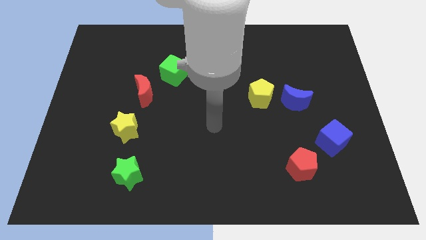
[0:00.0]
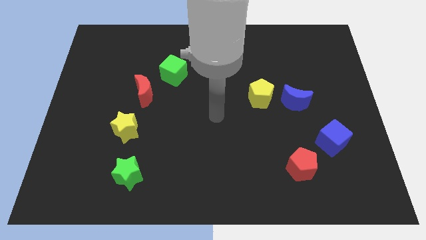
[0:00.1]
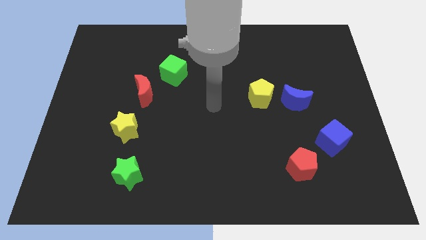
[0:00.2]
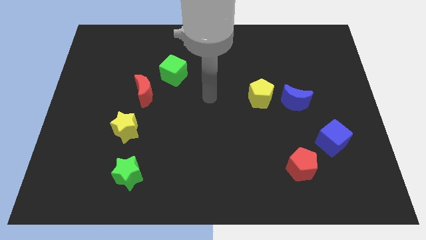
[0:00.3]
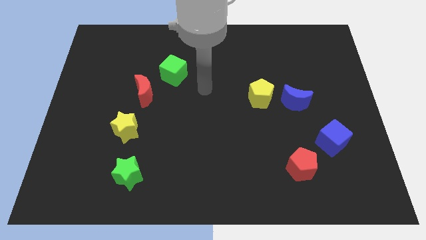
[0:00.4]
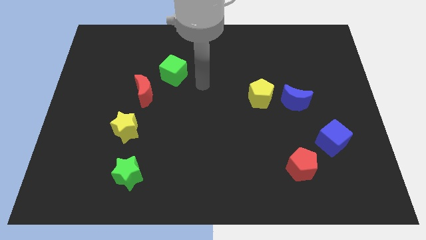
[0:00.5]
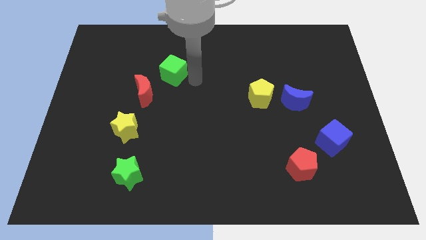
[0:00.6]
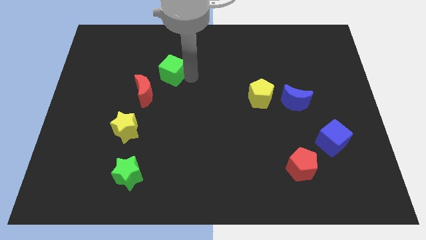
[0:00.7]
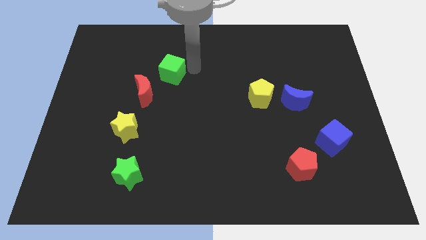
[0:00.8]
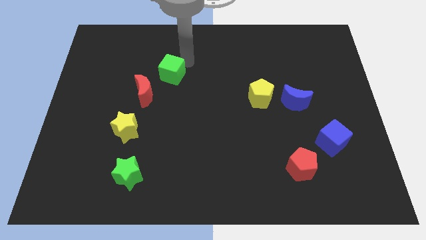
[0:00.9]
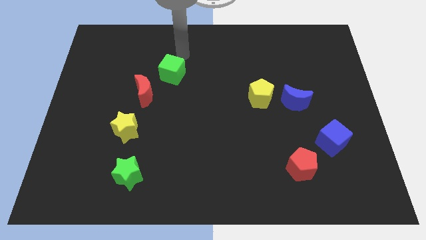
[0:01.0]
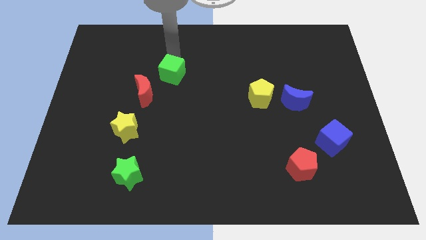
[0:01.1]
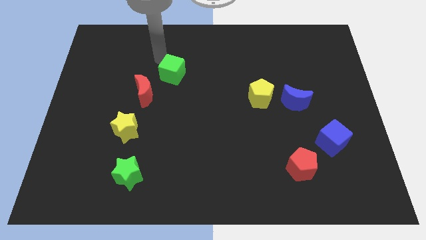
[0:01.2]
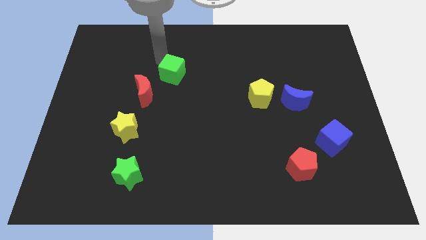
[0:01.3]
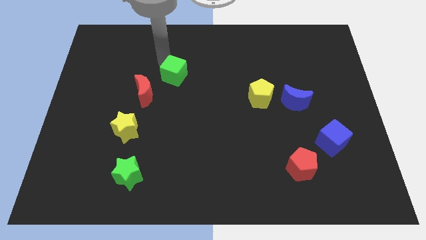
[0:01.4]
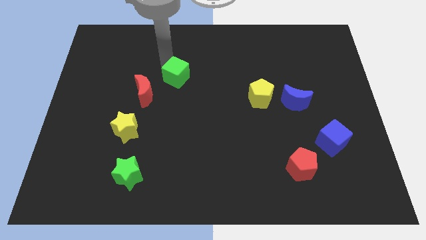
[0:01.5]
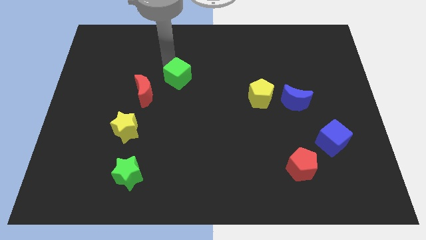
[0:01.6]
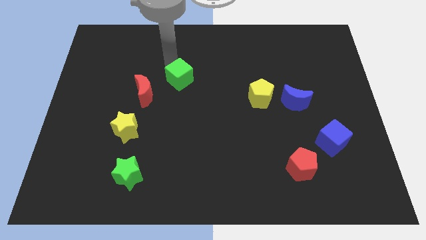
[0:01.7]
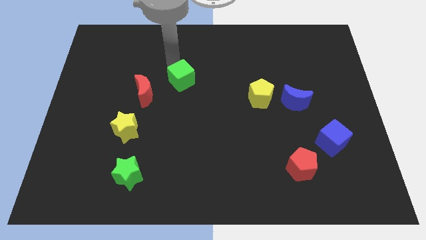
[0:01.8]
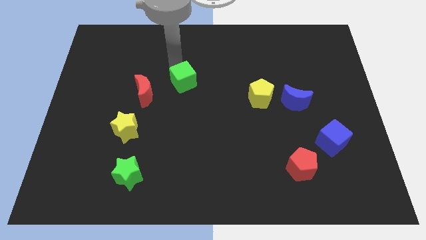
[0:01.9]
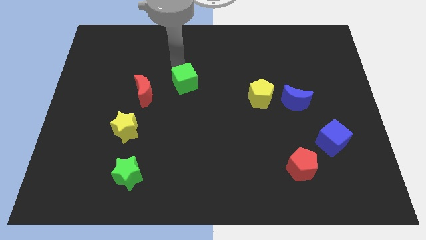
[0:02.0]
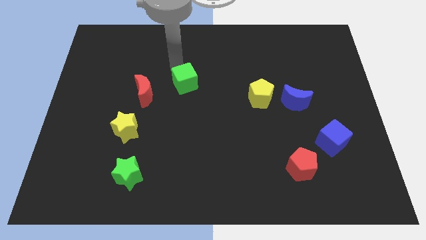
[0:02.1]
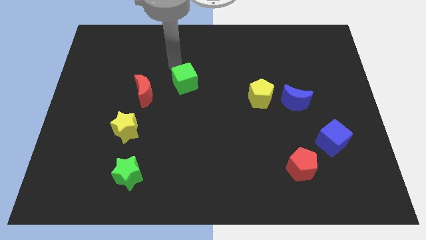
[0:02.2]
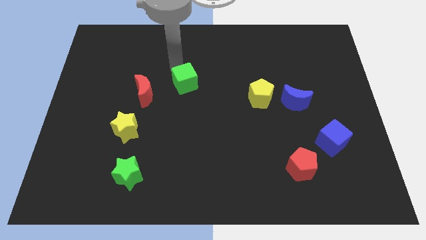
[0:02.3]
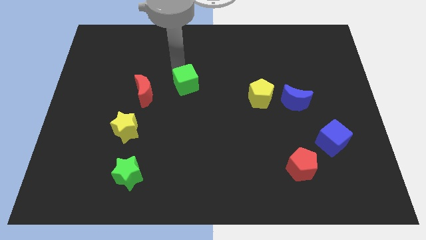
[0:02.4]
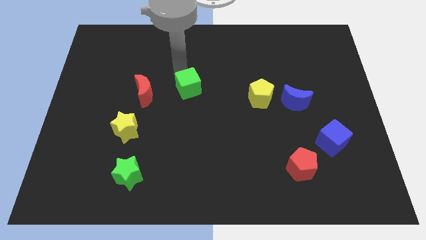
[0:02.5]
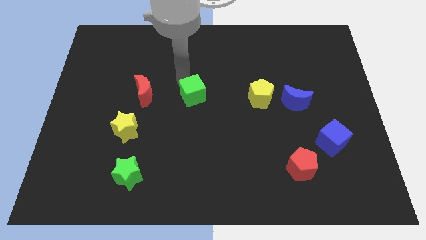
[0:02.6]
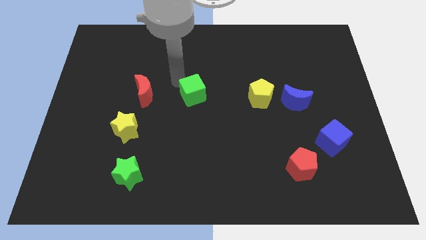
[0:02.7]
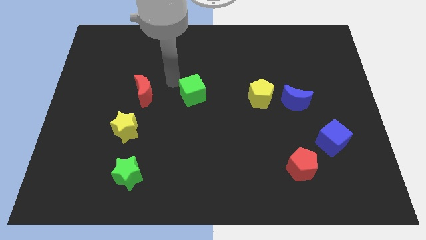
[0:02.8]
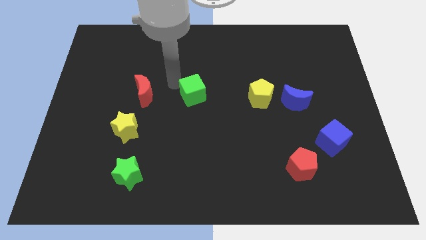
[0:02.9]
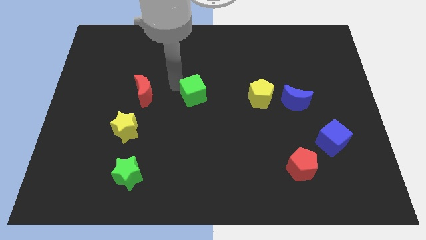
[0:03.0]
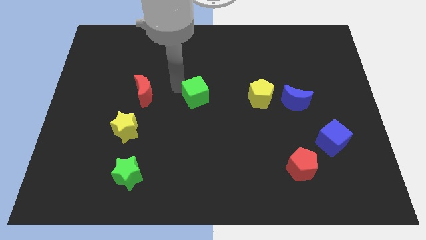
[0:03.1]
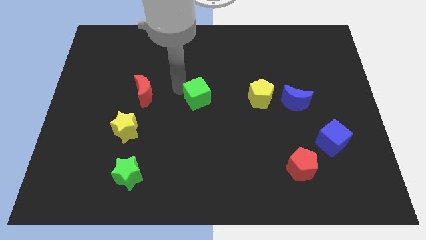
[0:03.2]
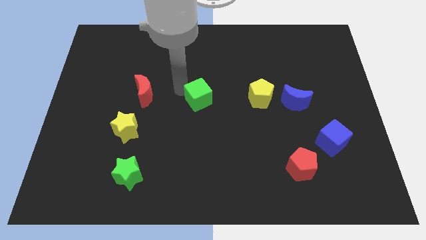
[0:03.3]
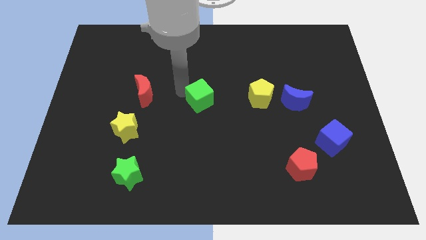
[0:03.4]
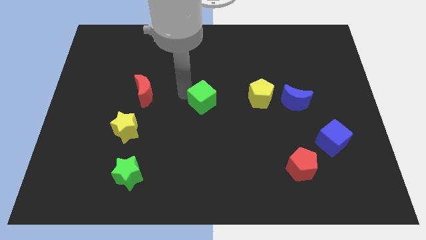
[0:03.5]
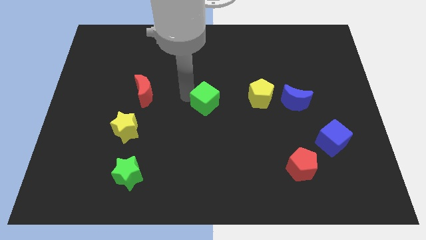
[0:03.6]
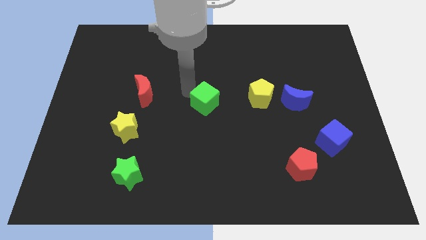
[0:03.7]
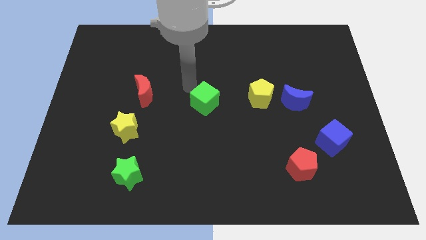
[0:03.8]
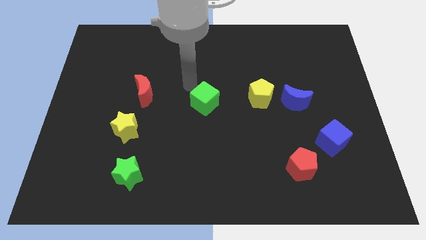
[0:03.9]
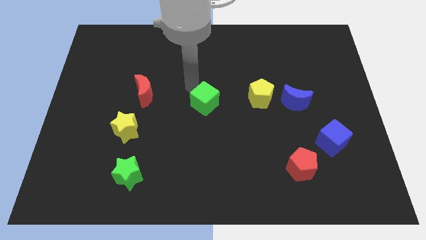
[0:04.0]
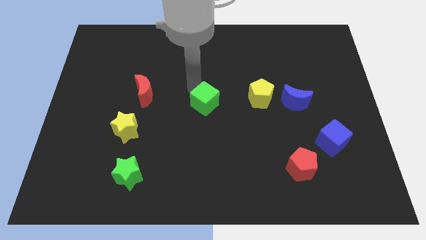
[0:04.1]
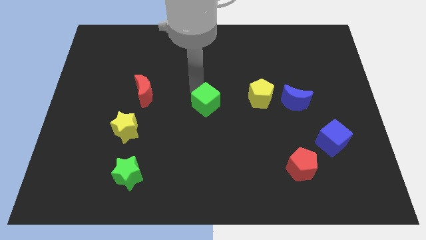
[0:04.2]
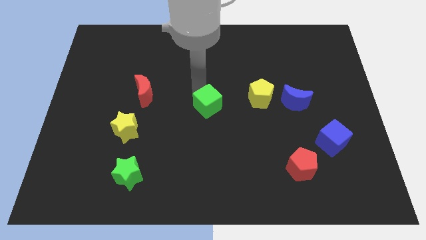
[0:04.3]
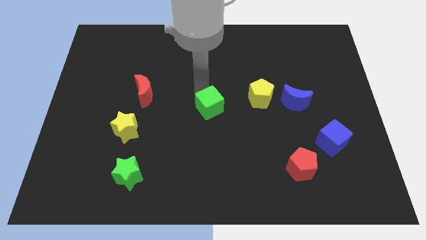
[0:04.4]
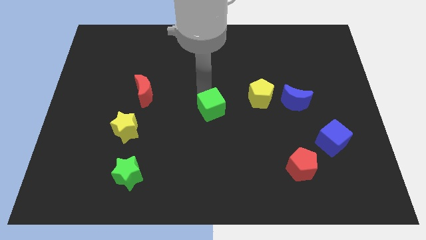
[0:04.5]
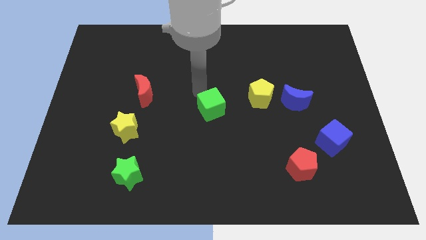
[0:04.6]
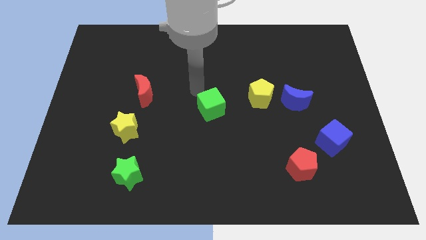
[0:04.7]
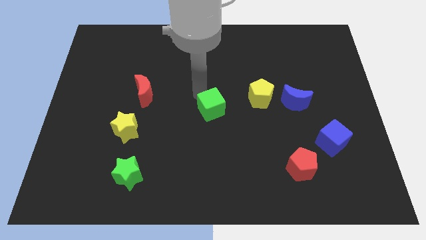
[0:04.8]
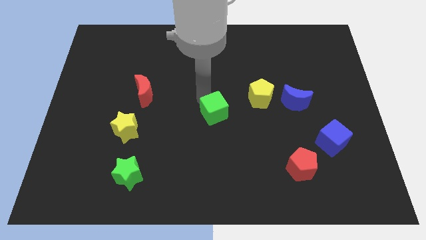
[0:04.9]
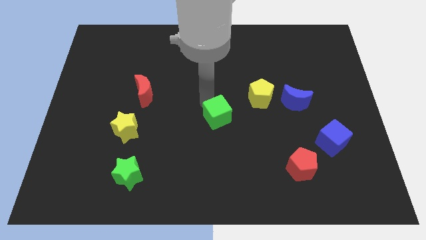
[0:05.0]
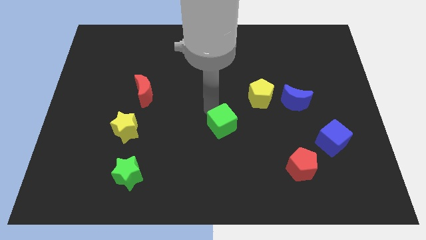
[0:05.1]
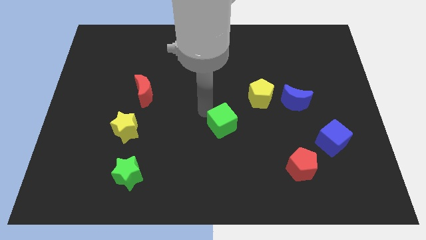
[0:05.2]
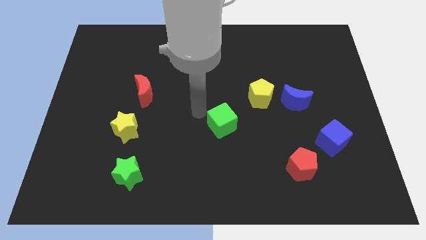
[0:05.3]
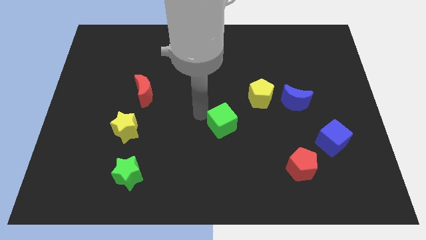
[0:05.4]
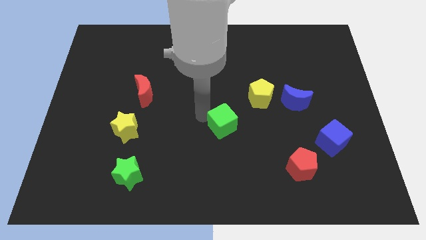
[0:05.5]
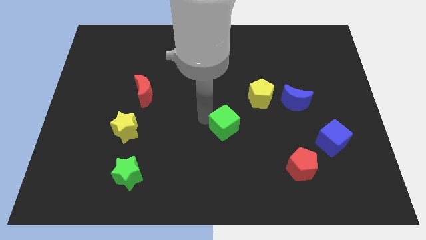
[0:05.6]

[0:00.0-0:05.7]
move the green cube downwards and to the right diagonally

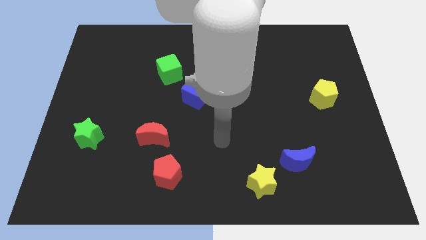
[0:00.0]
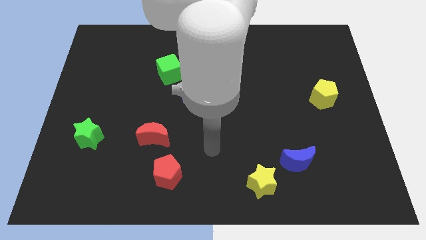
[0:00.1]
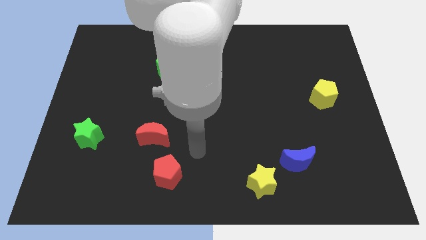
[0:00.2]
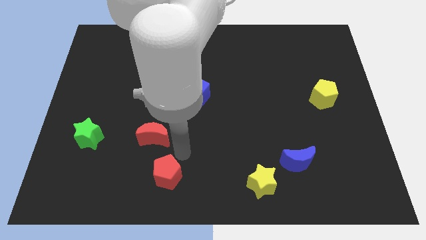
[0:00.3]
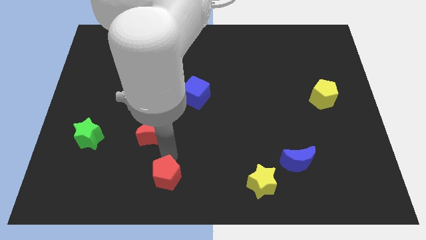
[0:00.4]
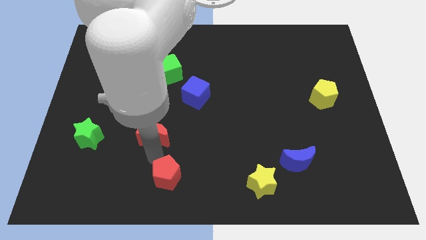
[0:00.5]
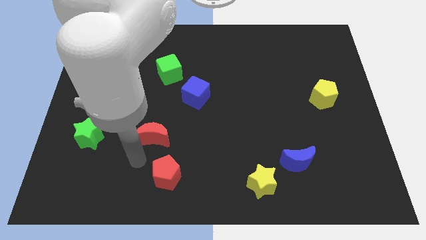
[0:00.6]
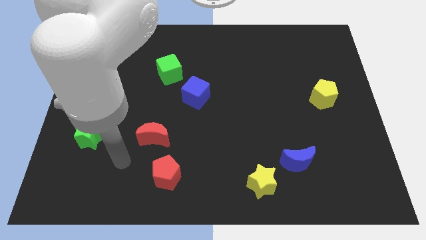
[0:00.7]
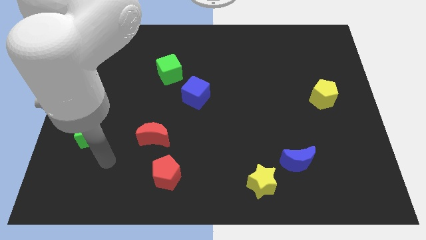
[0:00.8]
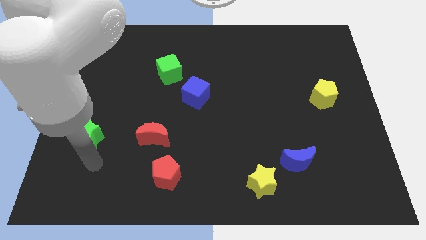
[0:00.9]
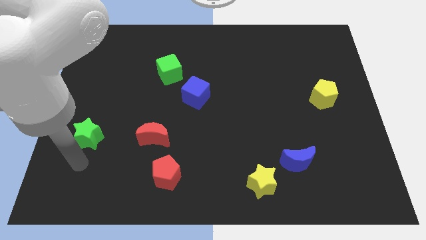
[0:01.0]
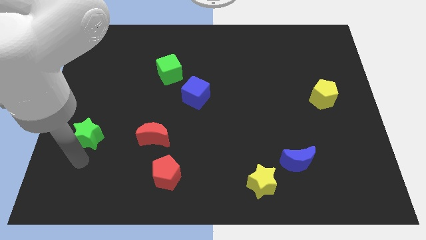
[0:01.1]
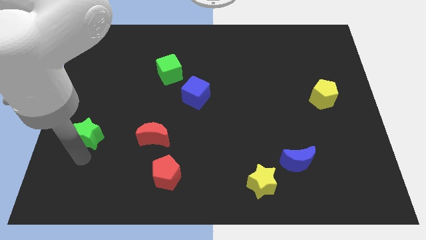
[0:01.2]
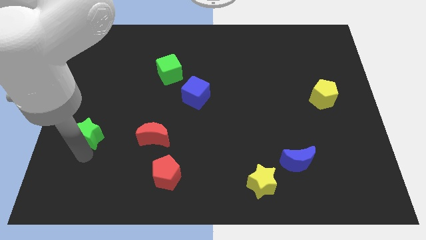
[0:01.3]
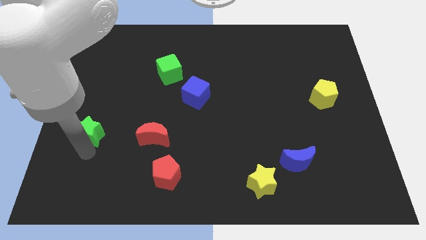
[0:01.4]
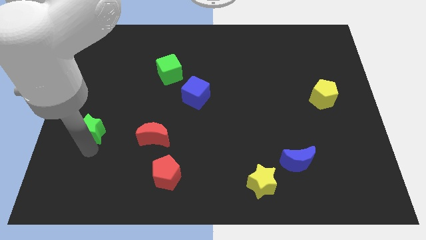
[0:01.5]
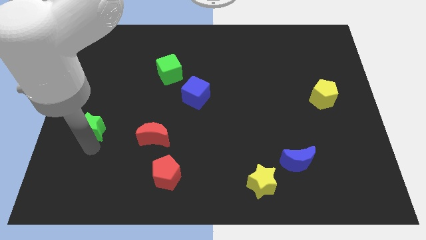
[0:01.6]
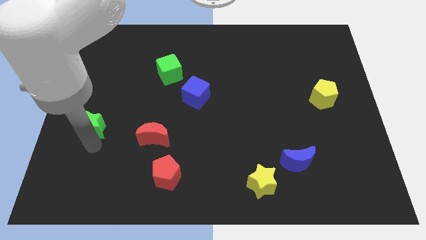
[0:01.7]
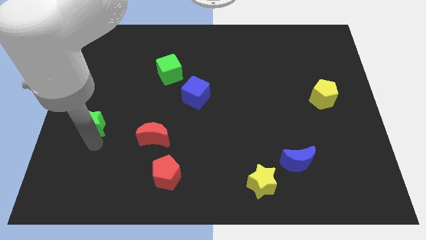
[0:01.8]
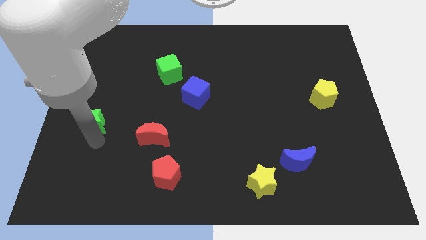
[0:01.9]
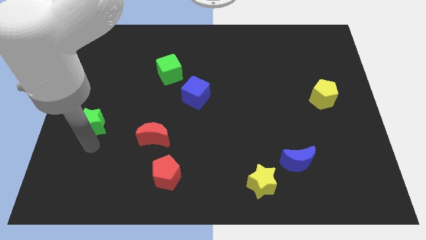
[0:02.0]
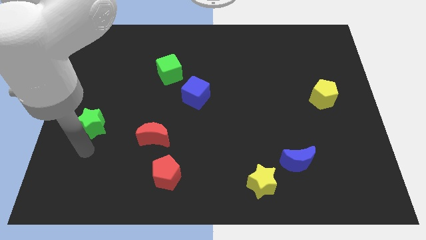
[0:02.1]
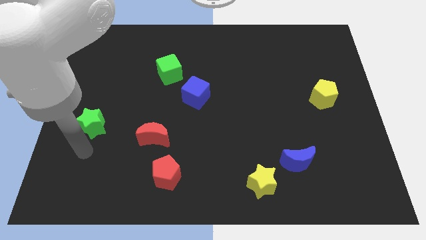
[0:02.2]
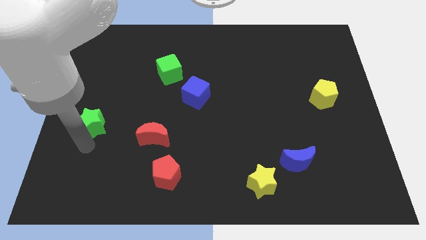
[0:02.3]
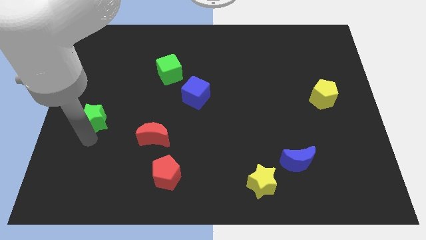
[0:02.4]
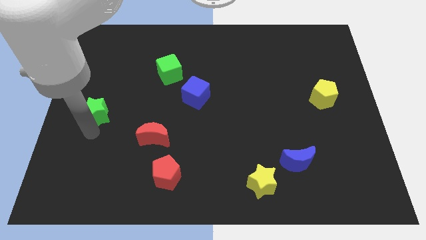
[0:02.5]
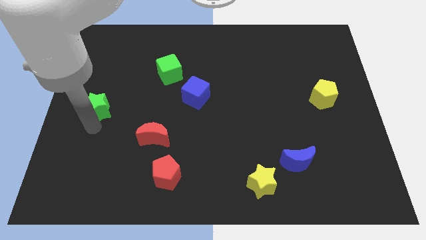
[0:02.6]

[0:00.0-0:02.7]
push the green star a little bit upwards
